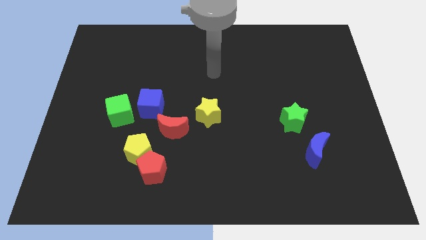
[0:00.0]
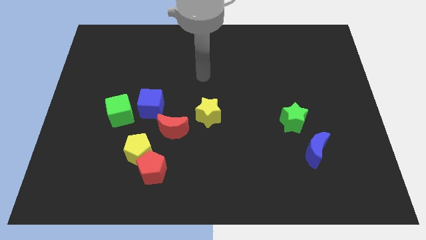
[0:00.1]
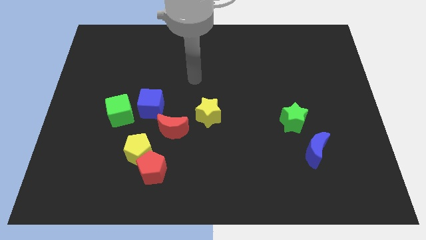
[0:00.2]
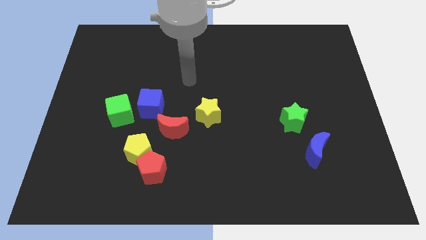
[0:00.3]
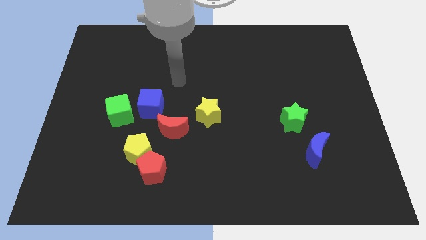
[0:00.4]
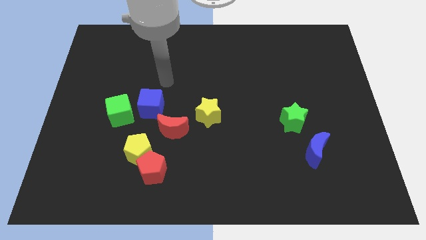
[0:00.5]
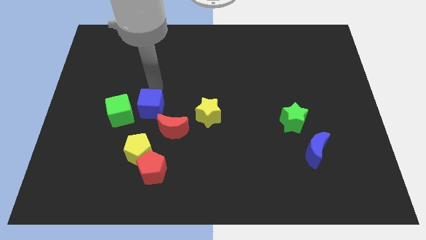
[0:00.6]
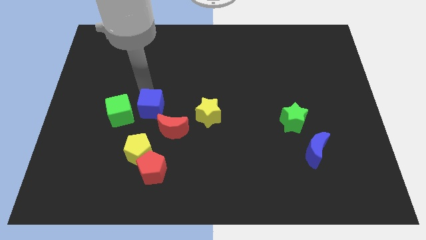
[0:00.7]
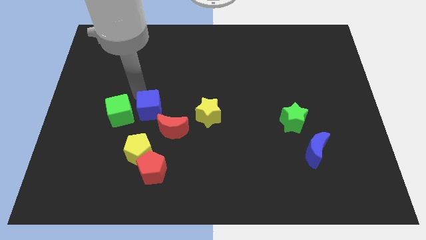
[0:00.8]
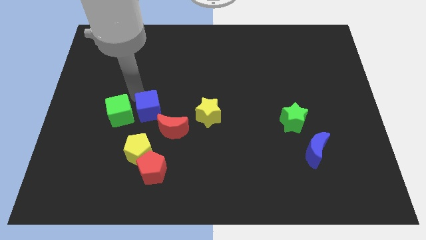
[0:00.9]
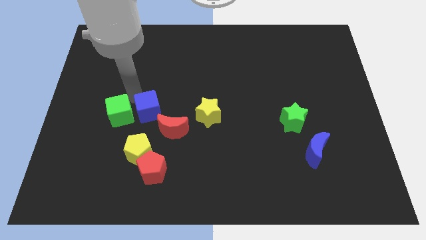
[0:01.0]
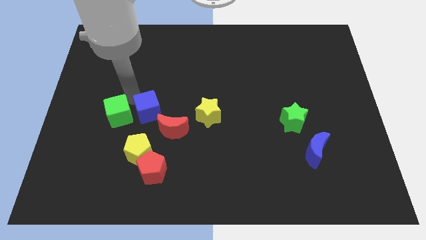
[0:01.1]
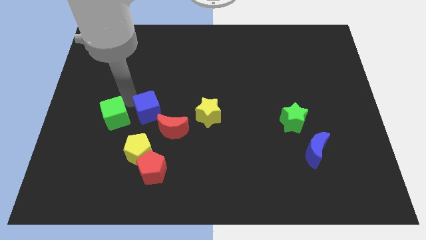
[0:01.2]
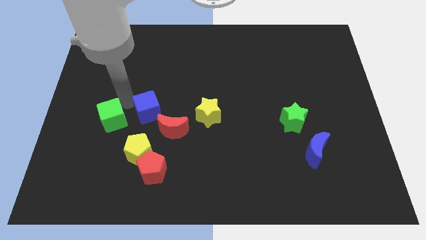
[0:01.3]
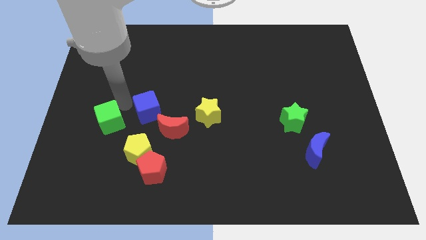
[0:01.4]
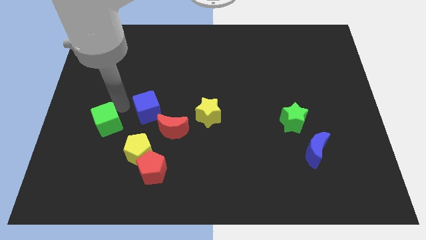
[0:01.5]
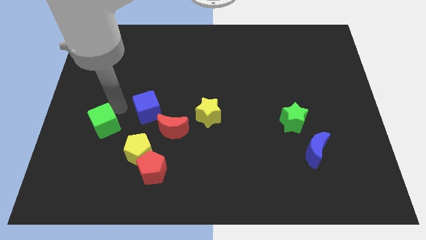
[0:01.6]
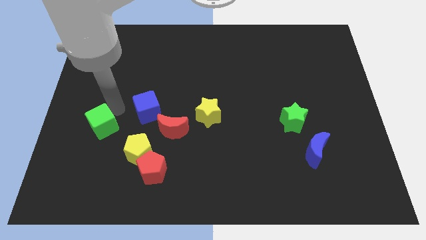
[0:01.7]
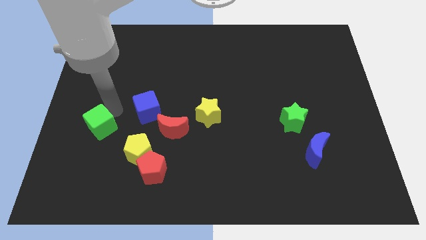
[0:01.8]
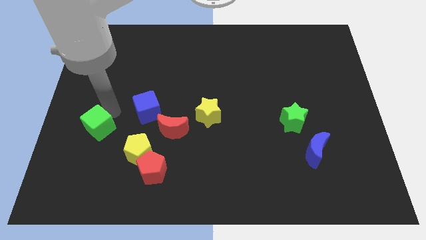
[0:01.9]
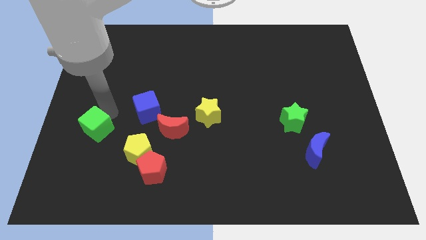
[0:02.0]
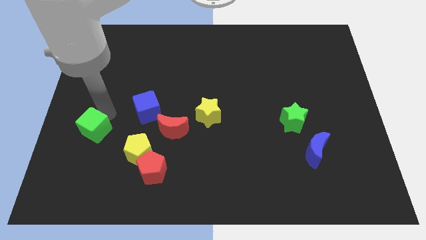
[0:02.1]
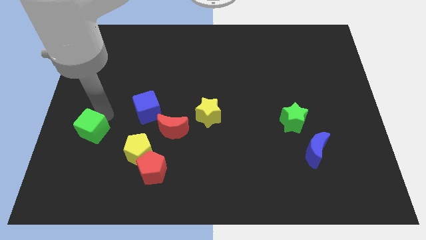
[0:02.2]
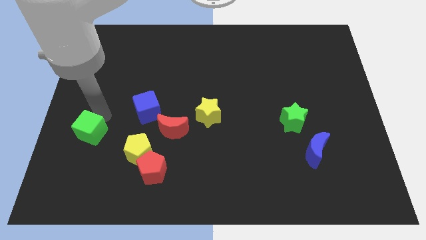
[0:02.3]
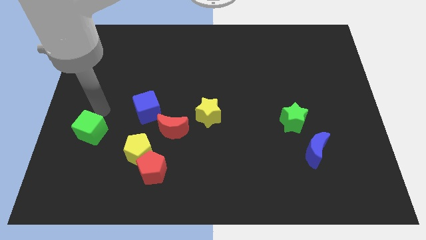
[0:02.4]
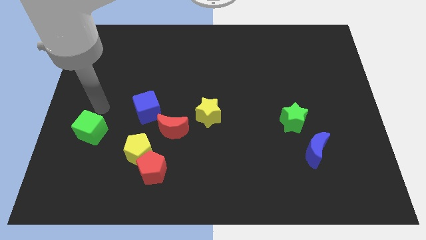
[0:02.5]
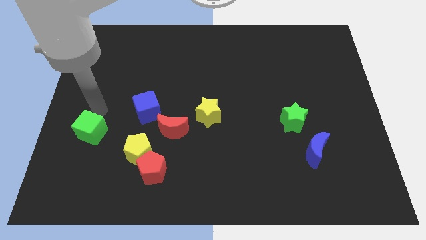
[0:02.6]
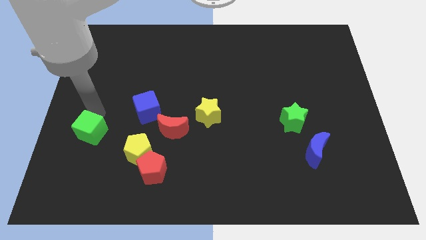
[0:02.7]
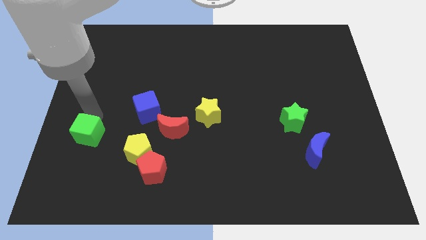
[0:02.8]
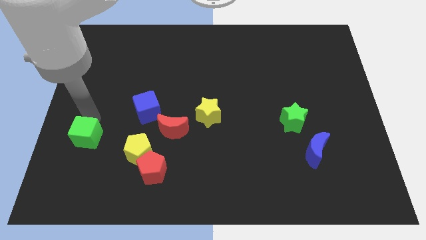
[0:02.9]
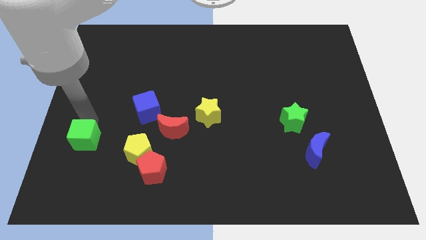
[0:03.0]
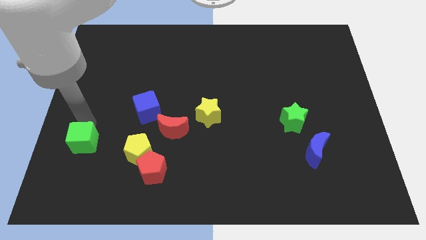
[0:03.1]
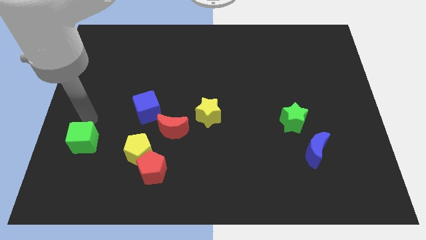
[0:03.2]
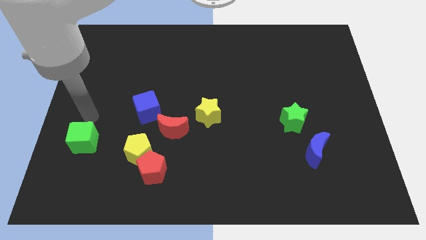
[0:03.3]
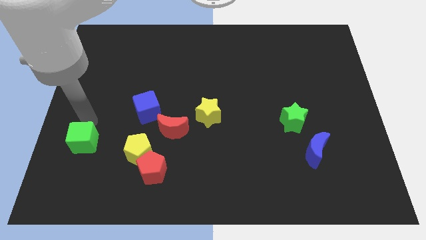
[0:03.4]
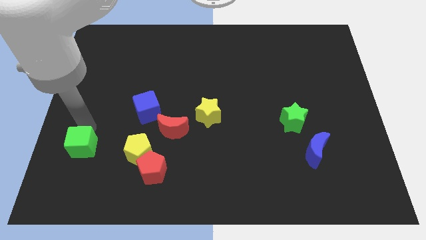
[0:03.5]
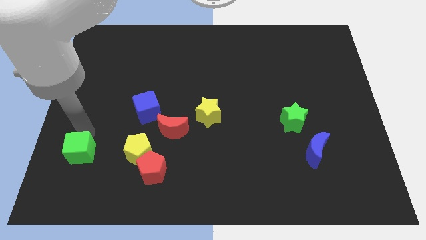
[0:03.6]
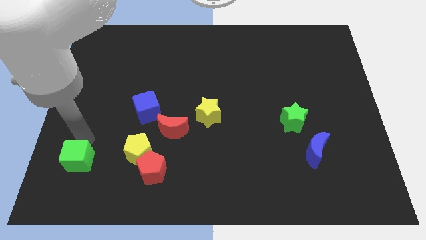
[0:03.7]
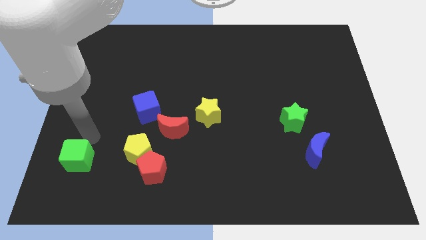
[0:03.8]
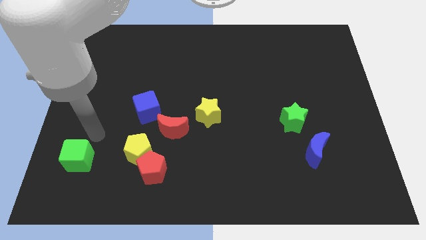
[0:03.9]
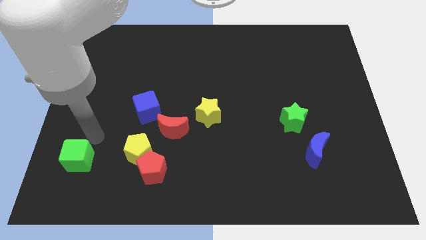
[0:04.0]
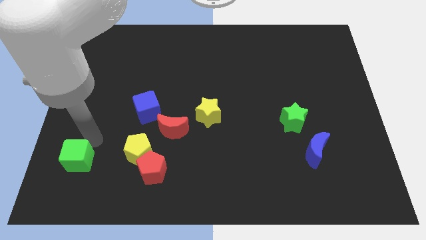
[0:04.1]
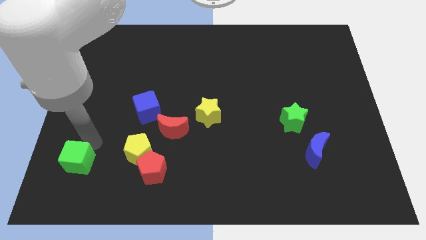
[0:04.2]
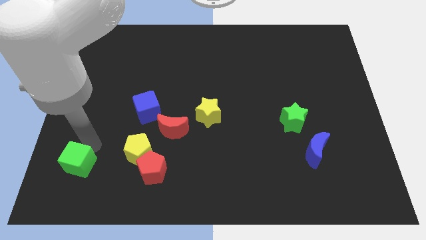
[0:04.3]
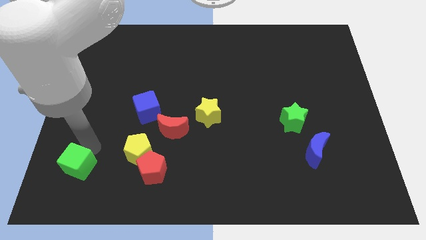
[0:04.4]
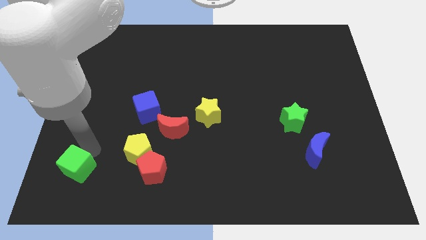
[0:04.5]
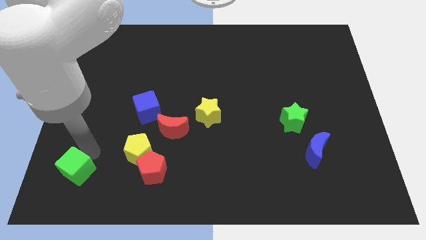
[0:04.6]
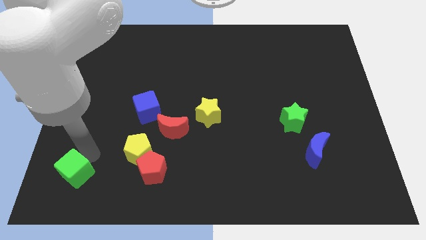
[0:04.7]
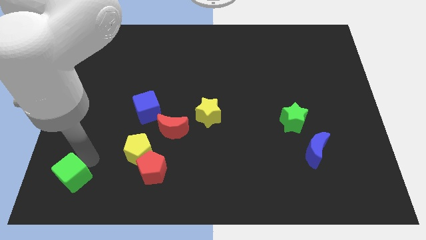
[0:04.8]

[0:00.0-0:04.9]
slide the green cube to the bottom left

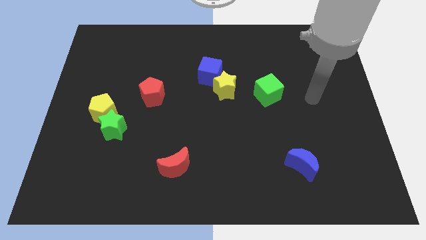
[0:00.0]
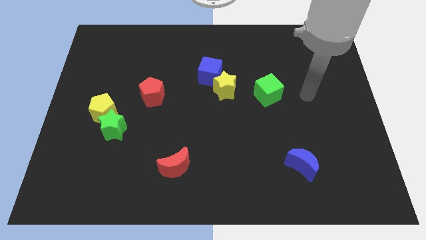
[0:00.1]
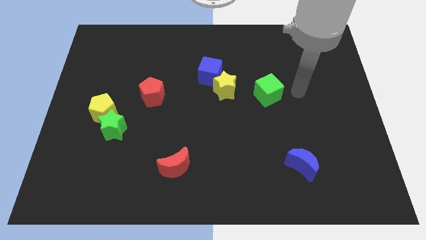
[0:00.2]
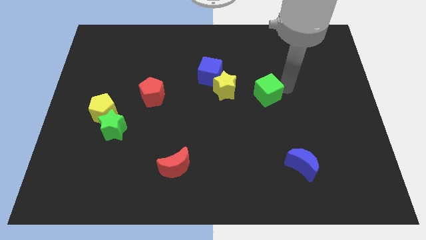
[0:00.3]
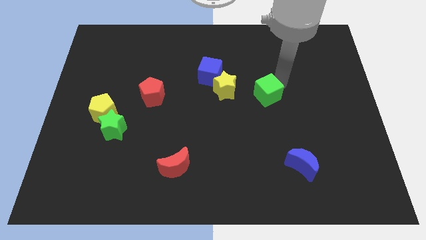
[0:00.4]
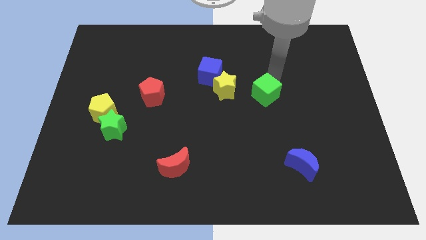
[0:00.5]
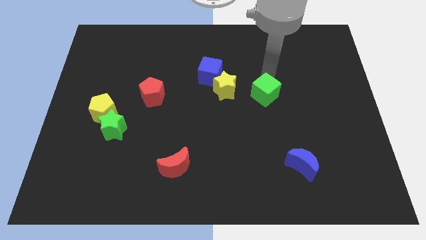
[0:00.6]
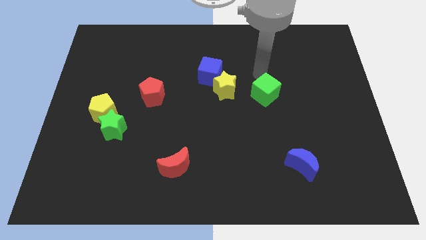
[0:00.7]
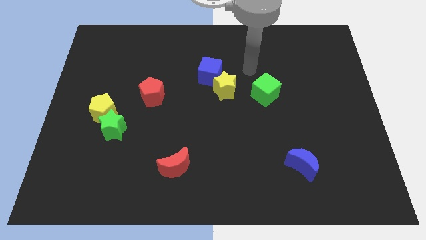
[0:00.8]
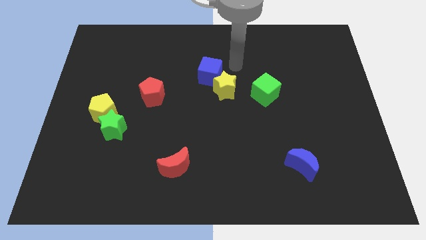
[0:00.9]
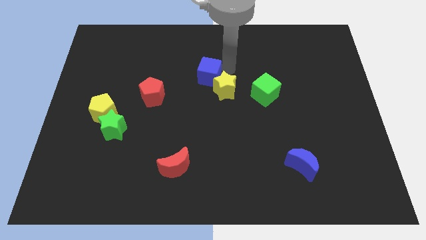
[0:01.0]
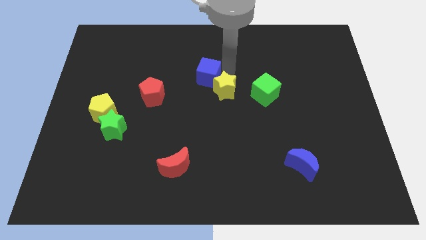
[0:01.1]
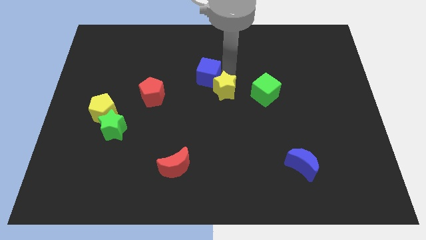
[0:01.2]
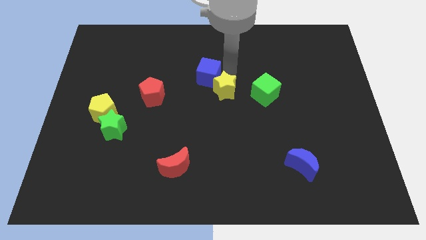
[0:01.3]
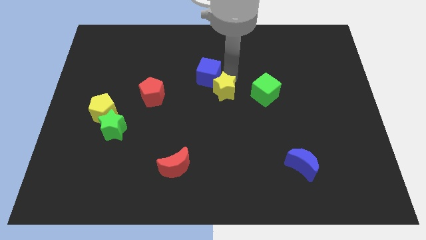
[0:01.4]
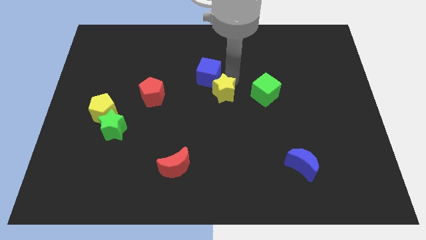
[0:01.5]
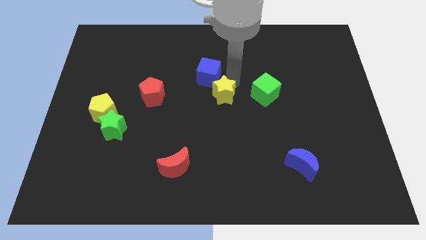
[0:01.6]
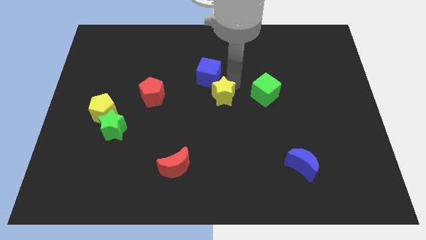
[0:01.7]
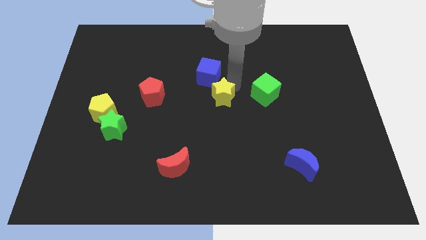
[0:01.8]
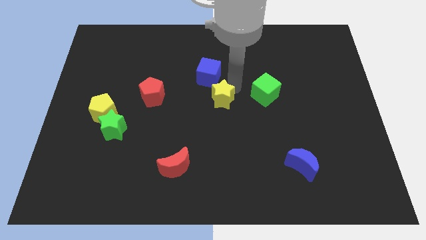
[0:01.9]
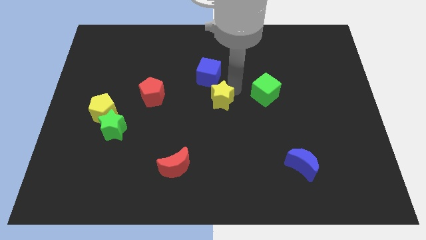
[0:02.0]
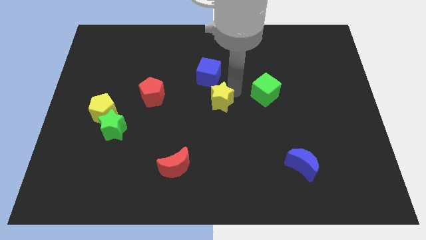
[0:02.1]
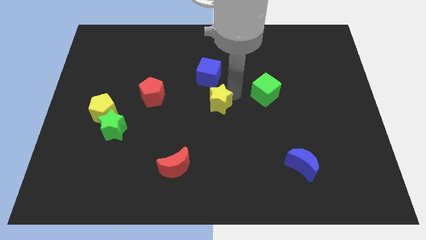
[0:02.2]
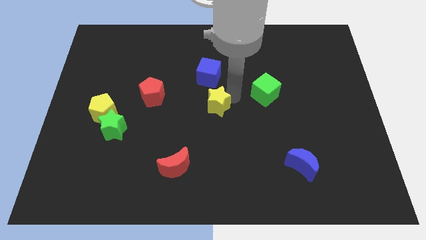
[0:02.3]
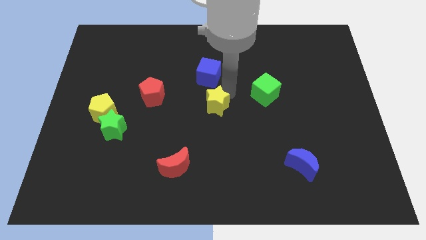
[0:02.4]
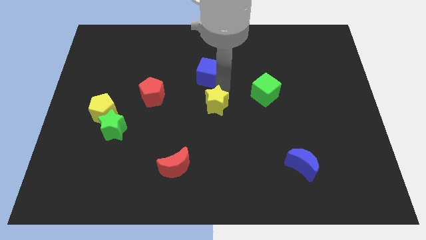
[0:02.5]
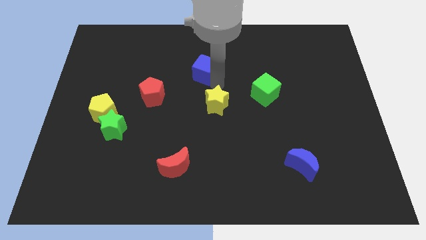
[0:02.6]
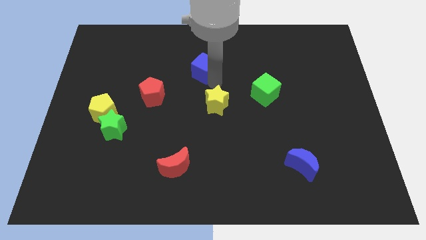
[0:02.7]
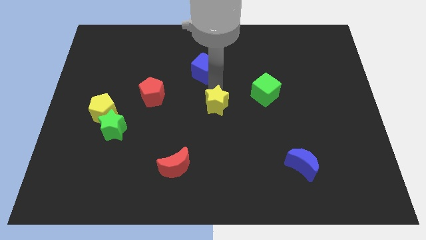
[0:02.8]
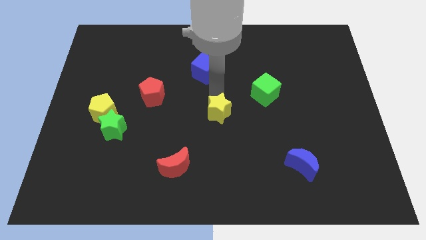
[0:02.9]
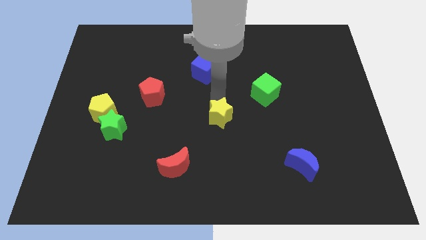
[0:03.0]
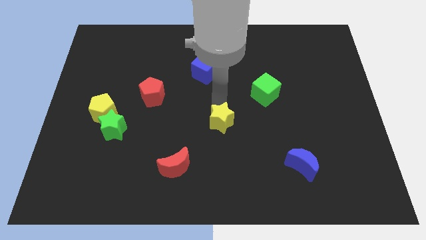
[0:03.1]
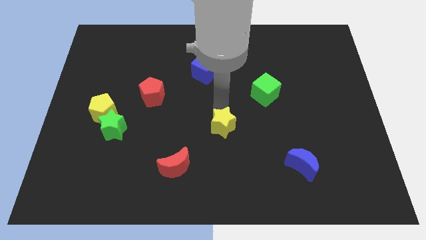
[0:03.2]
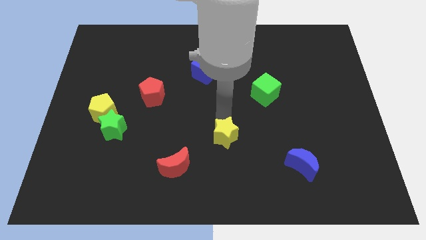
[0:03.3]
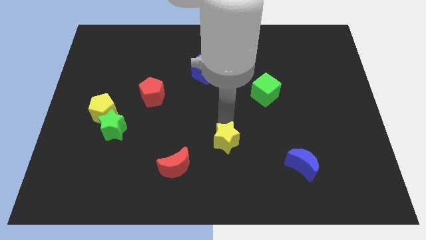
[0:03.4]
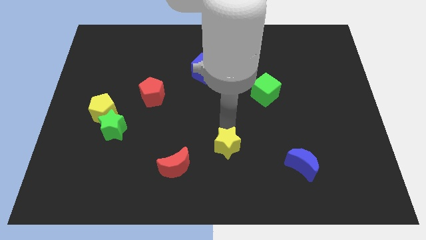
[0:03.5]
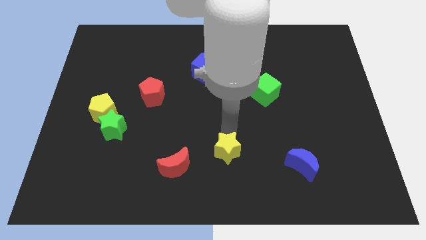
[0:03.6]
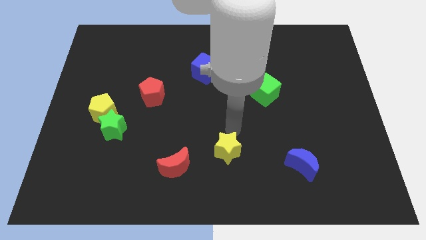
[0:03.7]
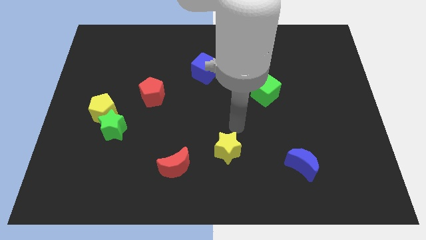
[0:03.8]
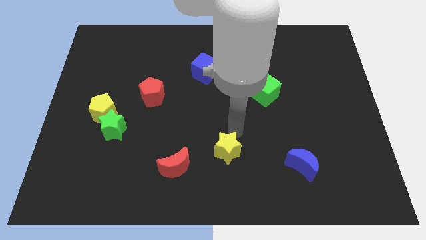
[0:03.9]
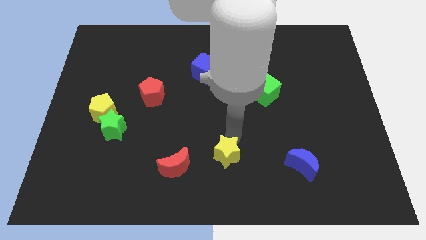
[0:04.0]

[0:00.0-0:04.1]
put the yellow star to the bottom
